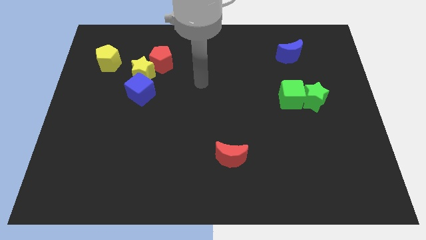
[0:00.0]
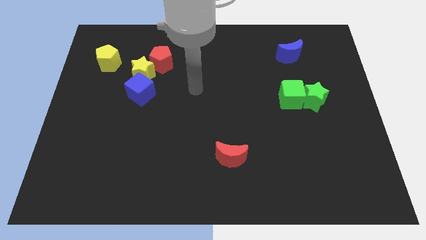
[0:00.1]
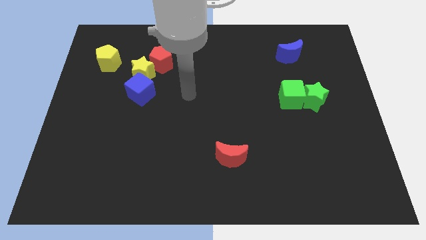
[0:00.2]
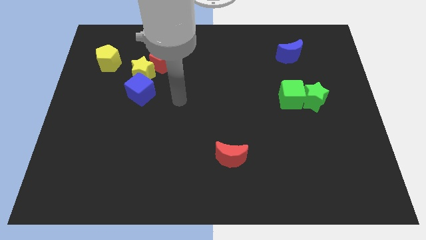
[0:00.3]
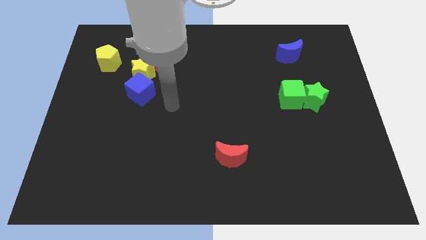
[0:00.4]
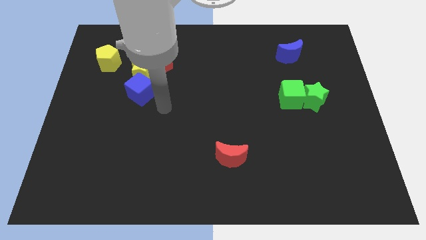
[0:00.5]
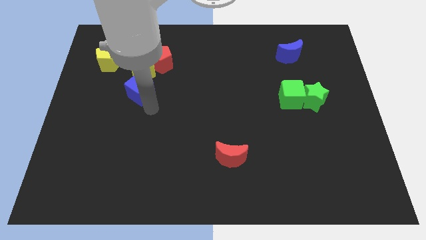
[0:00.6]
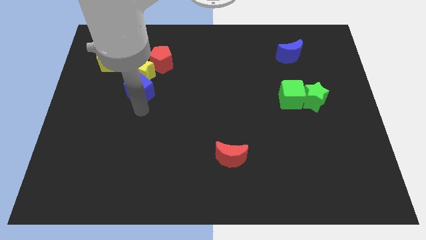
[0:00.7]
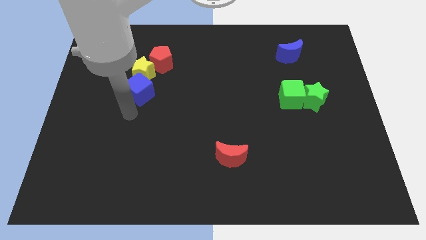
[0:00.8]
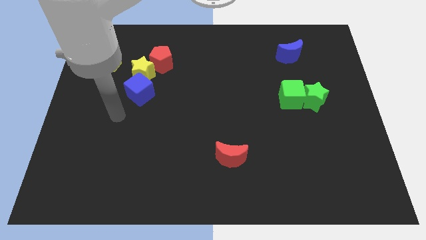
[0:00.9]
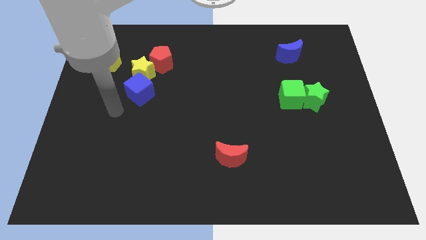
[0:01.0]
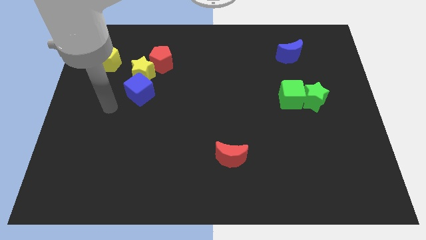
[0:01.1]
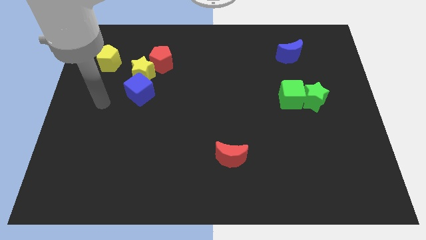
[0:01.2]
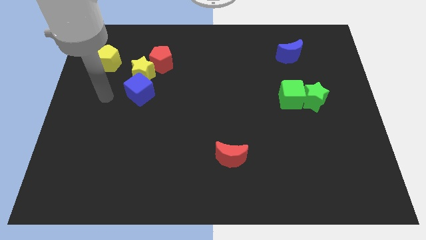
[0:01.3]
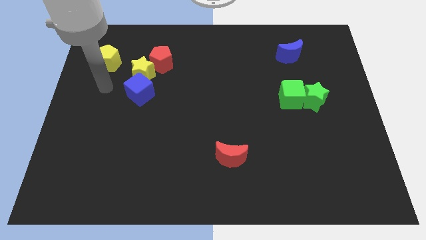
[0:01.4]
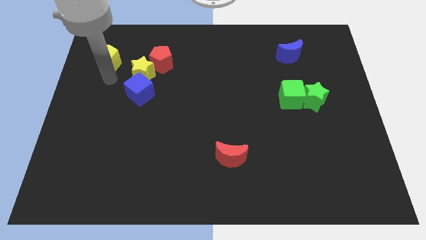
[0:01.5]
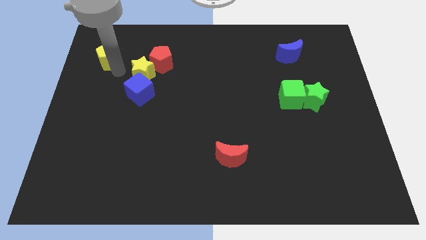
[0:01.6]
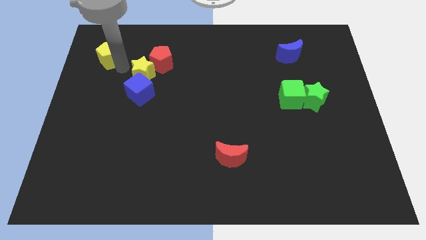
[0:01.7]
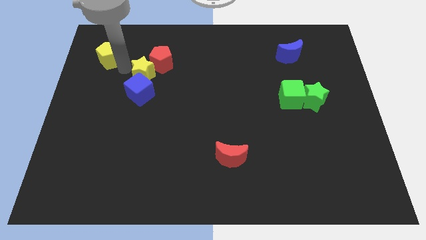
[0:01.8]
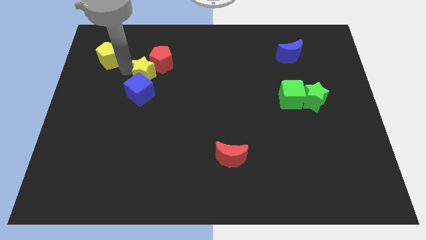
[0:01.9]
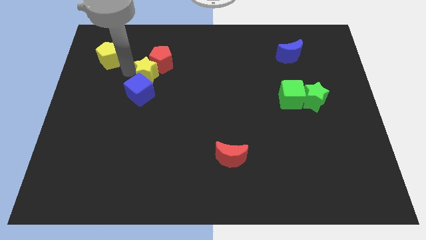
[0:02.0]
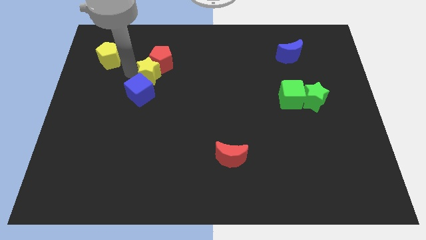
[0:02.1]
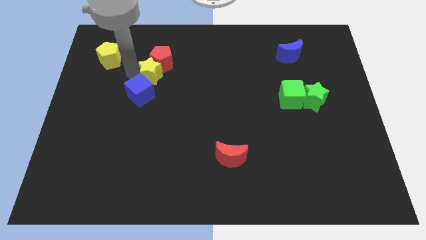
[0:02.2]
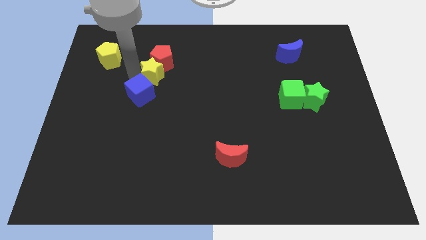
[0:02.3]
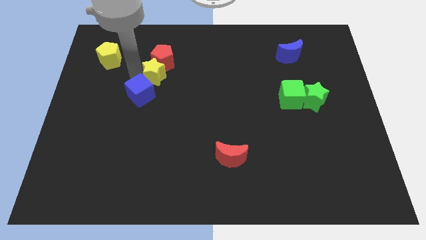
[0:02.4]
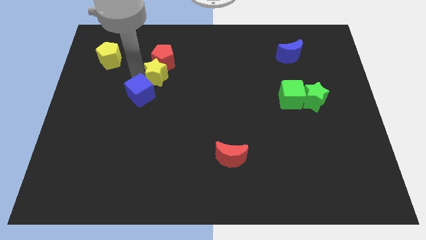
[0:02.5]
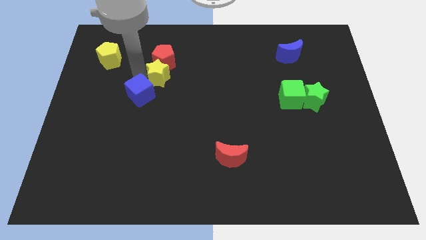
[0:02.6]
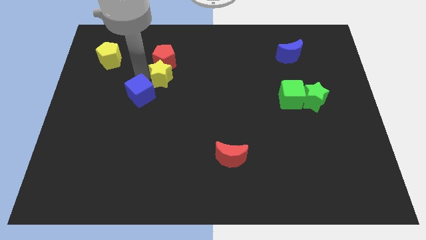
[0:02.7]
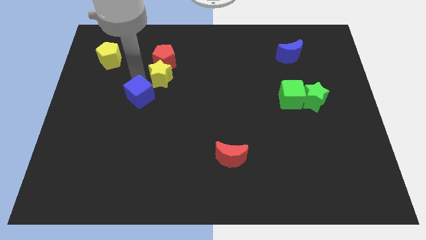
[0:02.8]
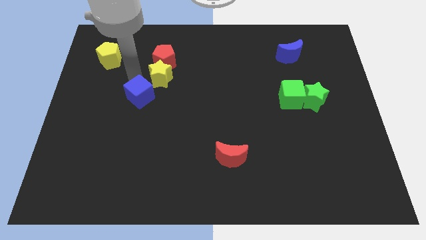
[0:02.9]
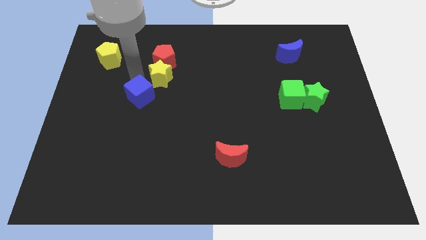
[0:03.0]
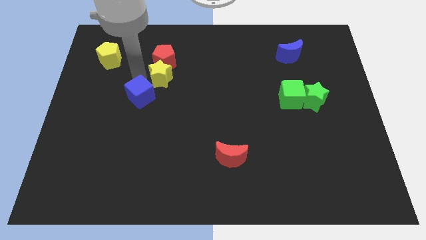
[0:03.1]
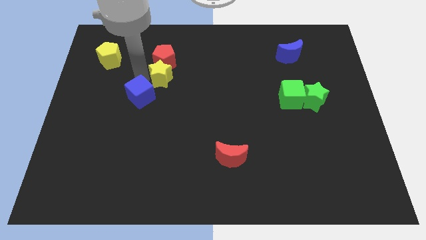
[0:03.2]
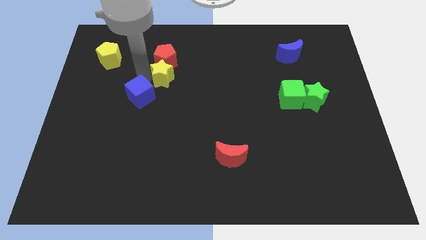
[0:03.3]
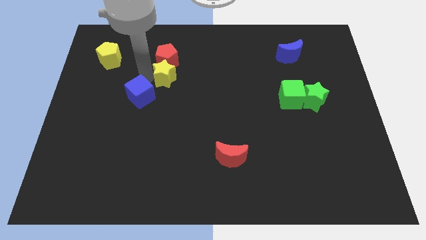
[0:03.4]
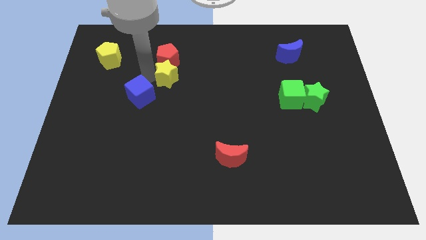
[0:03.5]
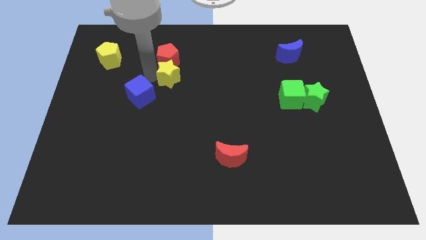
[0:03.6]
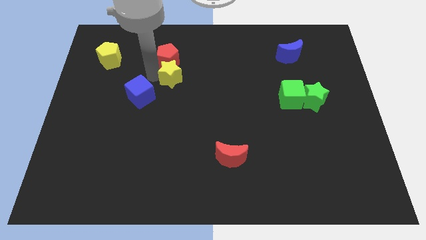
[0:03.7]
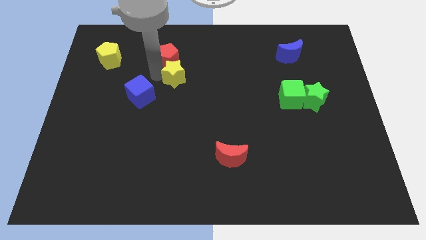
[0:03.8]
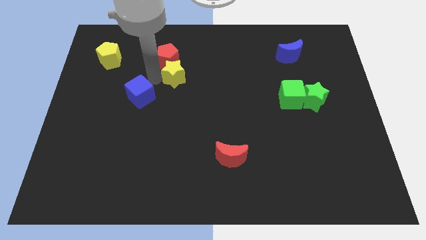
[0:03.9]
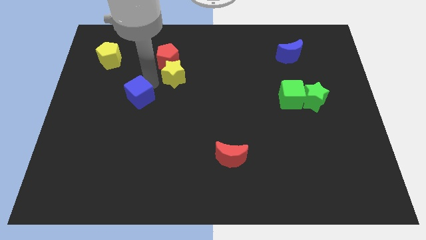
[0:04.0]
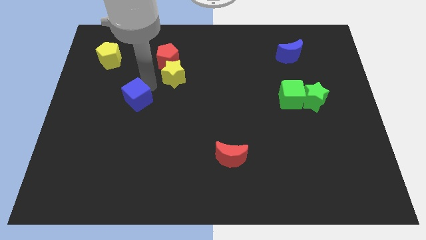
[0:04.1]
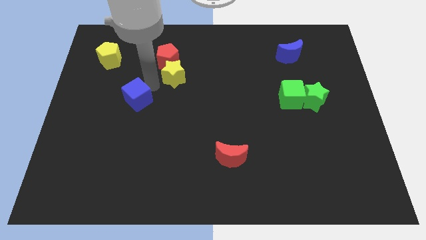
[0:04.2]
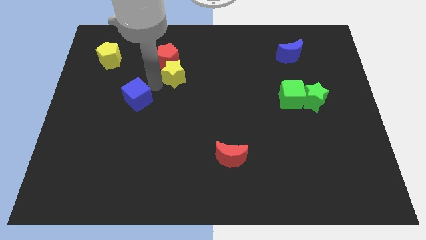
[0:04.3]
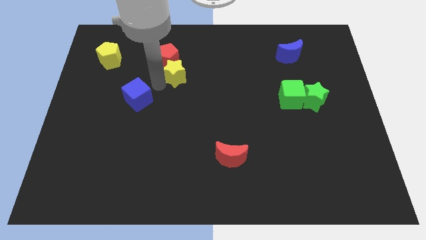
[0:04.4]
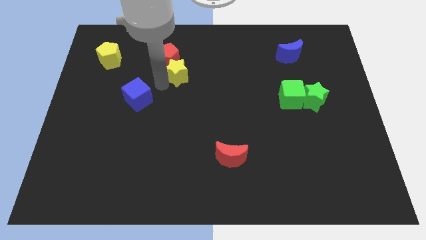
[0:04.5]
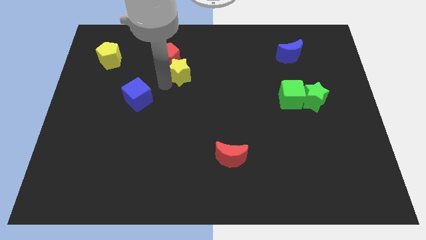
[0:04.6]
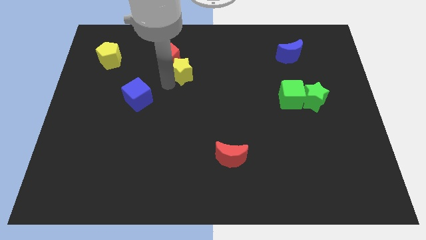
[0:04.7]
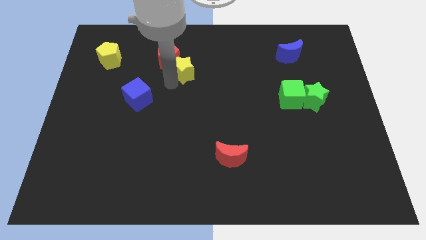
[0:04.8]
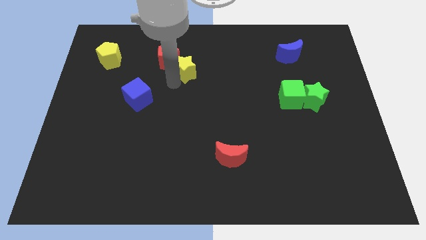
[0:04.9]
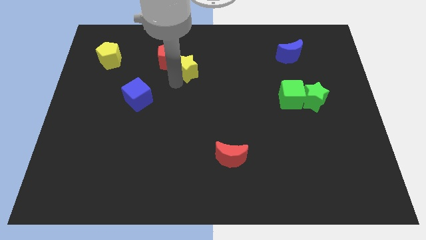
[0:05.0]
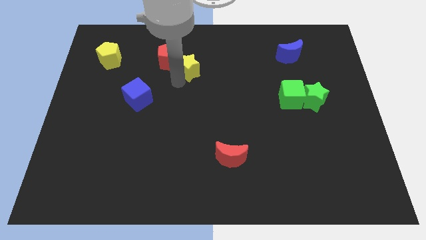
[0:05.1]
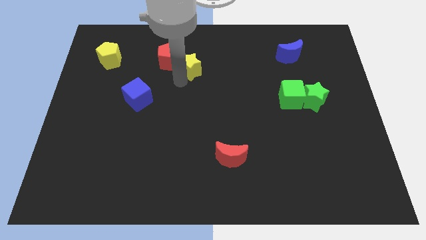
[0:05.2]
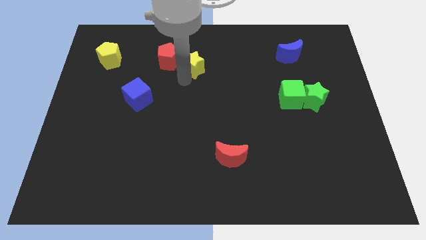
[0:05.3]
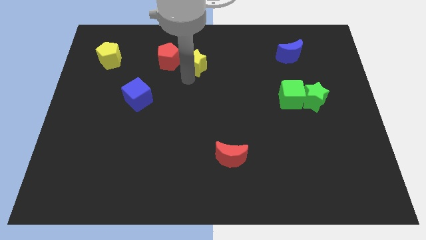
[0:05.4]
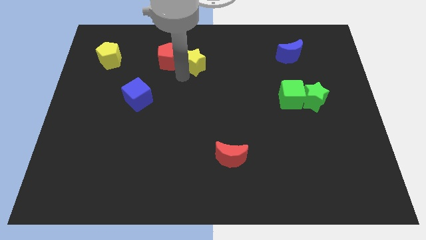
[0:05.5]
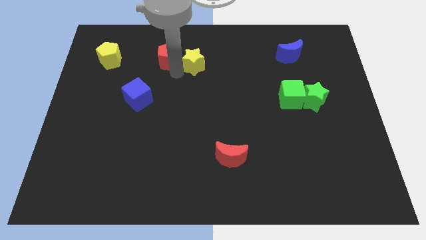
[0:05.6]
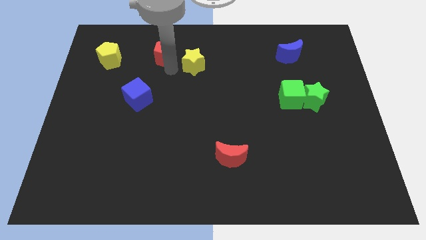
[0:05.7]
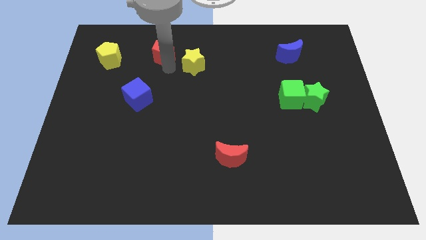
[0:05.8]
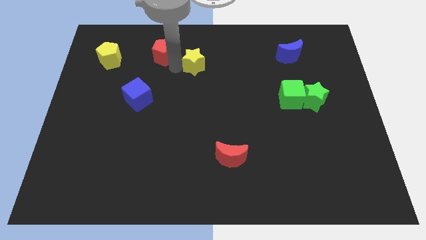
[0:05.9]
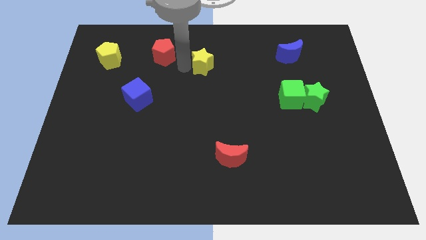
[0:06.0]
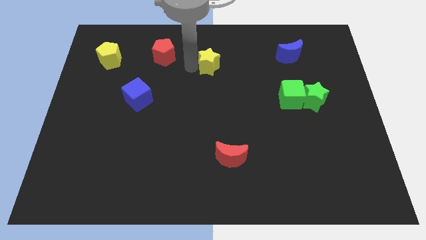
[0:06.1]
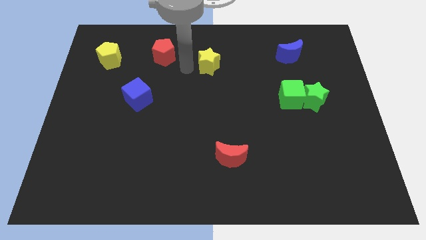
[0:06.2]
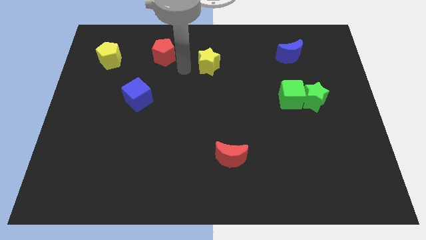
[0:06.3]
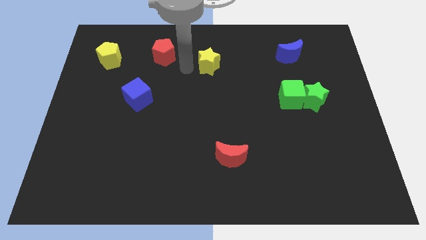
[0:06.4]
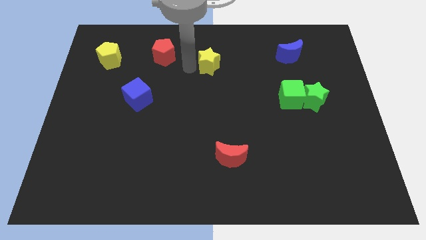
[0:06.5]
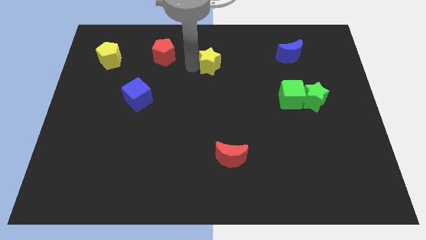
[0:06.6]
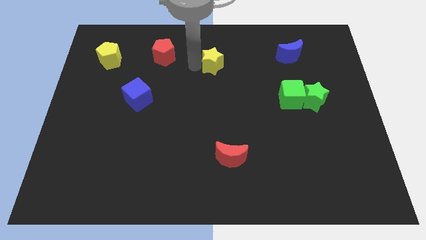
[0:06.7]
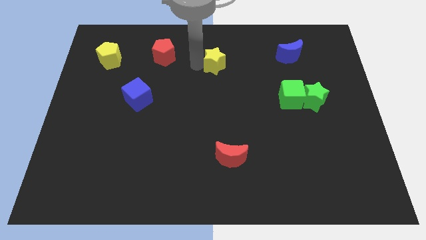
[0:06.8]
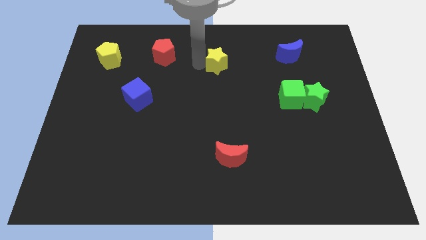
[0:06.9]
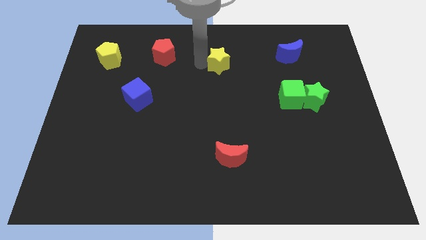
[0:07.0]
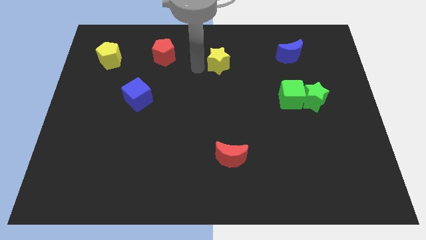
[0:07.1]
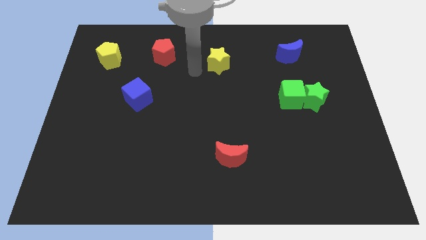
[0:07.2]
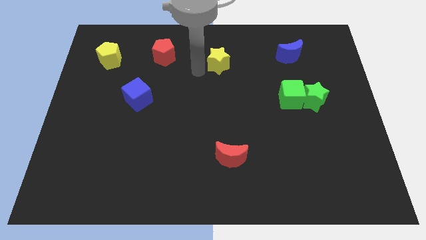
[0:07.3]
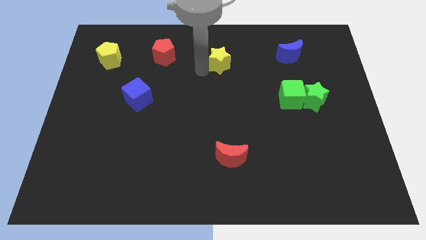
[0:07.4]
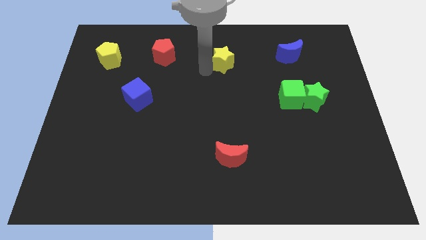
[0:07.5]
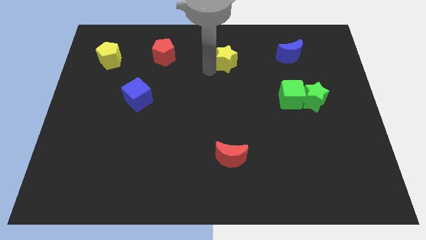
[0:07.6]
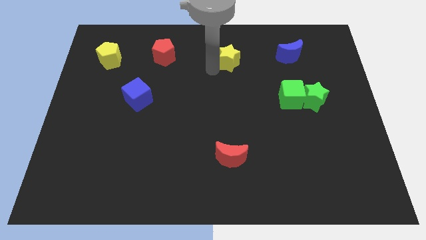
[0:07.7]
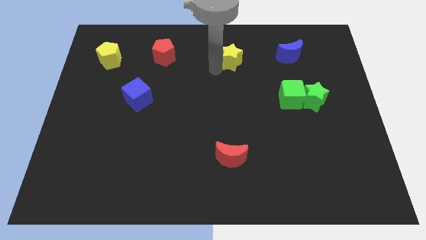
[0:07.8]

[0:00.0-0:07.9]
put the yellow star to the left side of the blue moon
